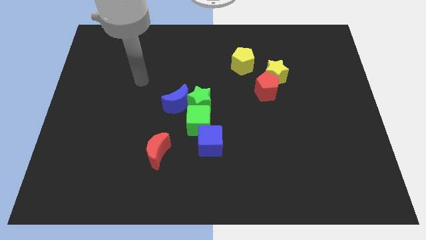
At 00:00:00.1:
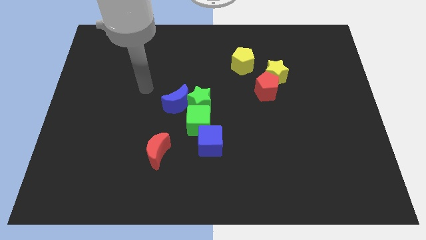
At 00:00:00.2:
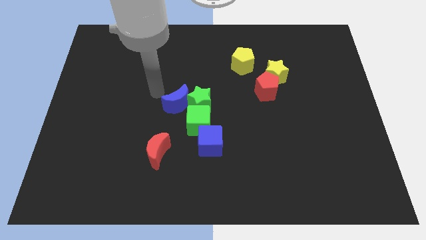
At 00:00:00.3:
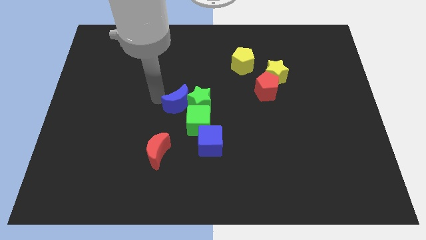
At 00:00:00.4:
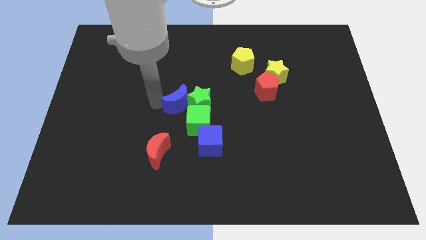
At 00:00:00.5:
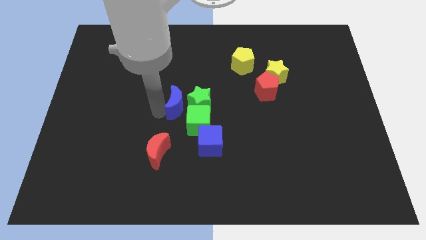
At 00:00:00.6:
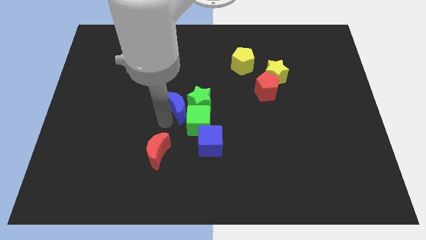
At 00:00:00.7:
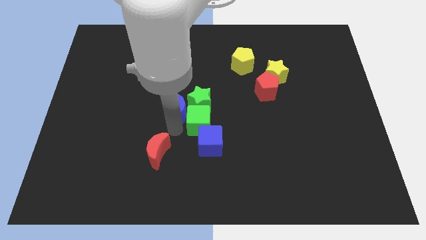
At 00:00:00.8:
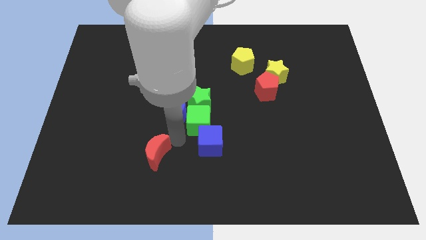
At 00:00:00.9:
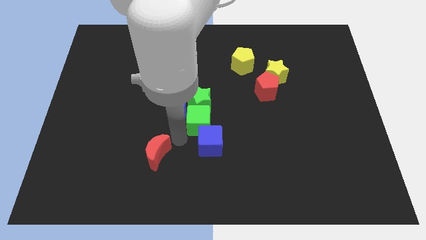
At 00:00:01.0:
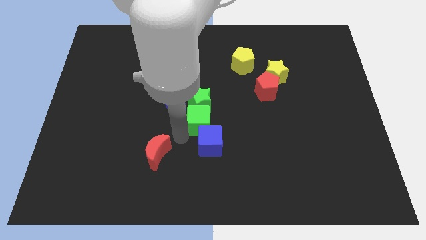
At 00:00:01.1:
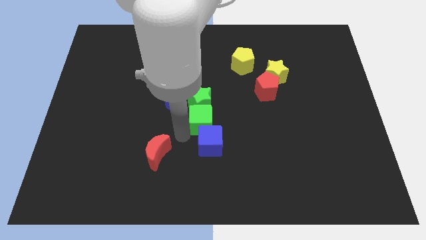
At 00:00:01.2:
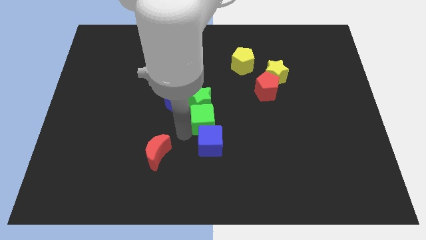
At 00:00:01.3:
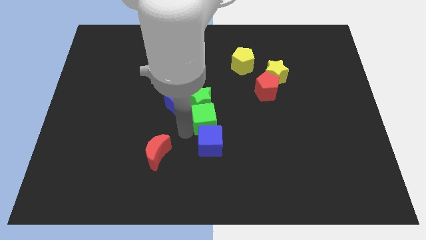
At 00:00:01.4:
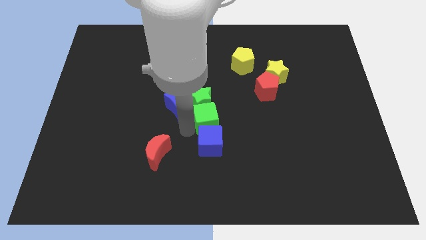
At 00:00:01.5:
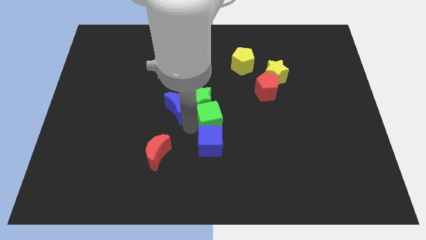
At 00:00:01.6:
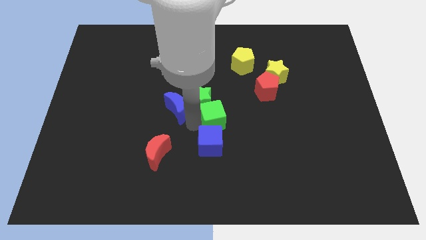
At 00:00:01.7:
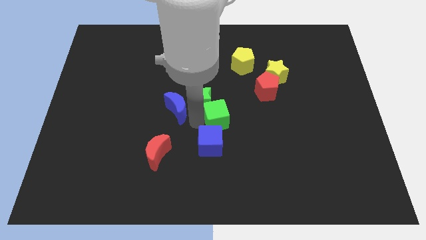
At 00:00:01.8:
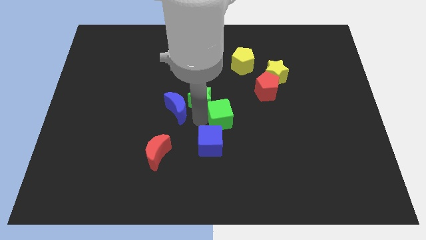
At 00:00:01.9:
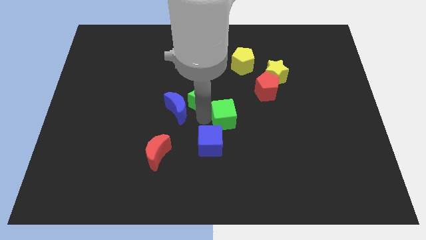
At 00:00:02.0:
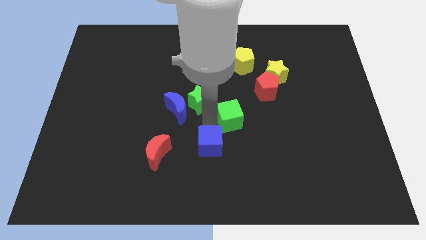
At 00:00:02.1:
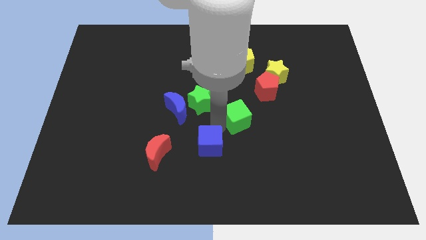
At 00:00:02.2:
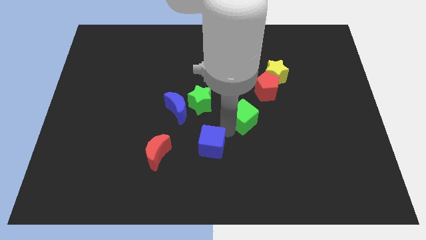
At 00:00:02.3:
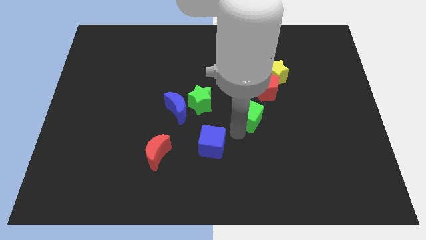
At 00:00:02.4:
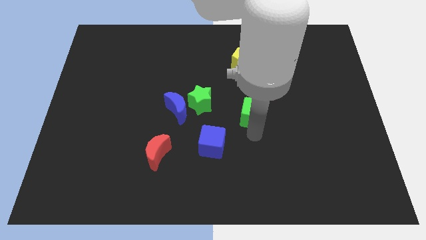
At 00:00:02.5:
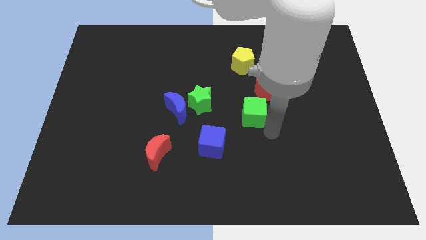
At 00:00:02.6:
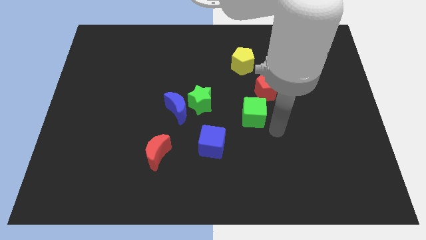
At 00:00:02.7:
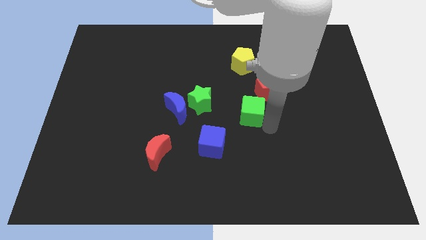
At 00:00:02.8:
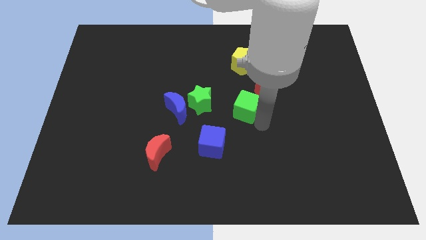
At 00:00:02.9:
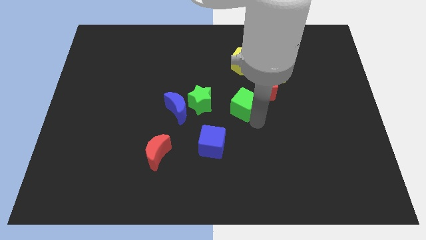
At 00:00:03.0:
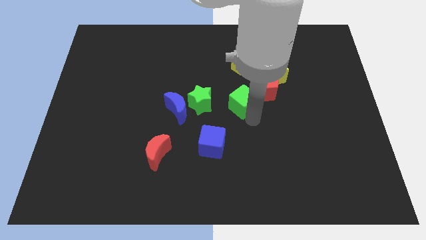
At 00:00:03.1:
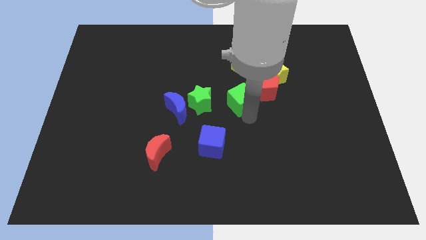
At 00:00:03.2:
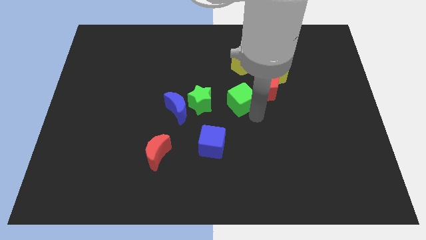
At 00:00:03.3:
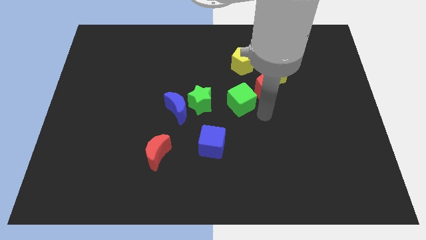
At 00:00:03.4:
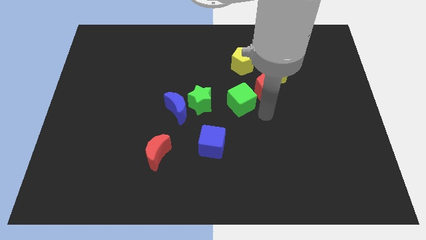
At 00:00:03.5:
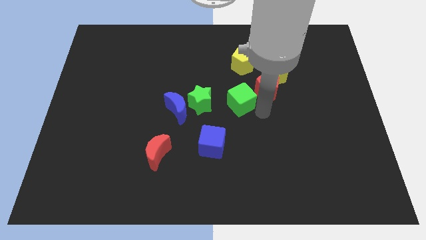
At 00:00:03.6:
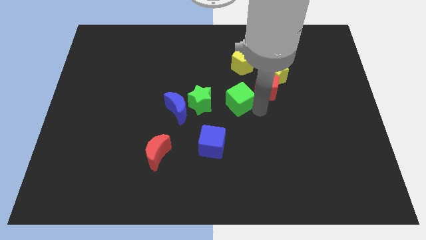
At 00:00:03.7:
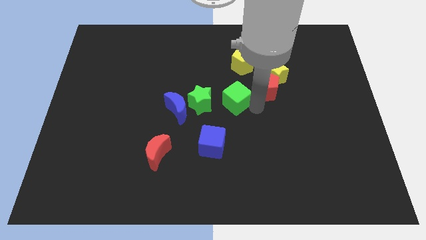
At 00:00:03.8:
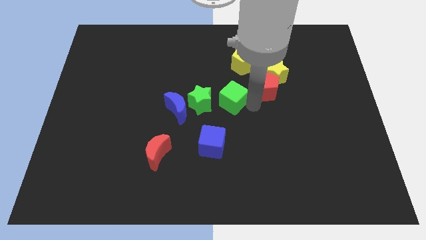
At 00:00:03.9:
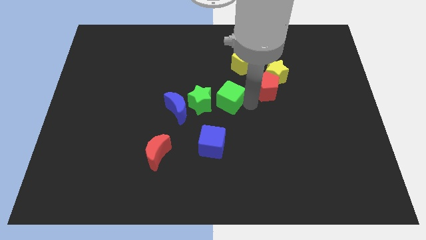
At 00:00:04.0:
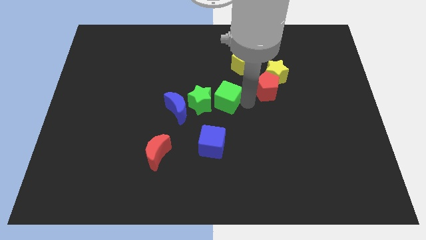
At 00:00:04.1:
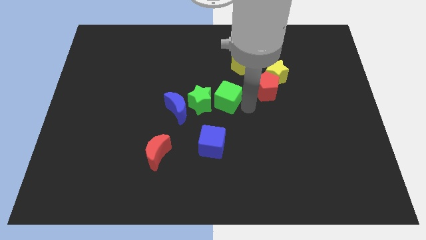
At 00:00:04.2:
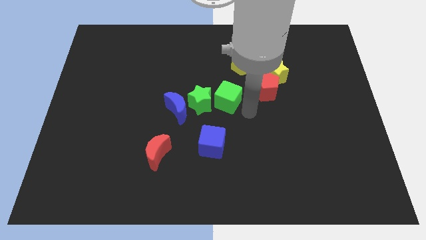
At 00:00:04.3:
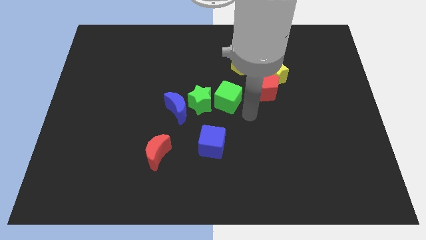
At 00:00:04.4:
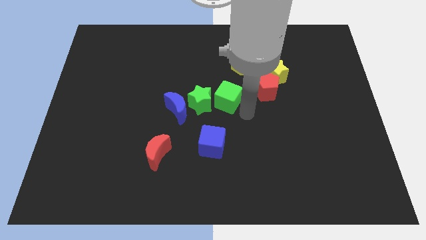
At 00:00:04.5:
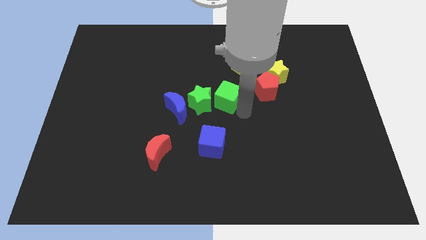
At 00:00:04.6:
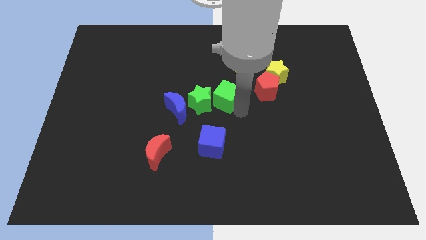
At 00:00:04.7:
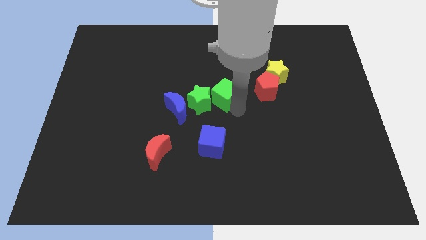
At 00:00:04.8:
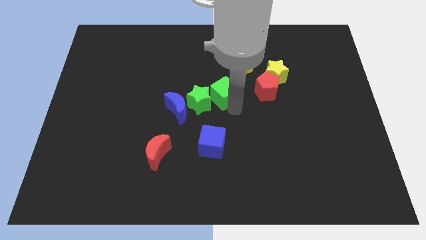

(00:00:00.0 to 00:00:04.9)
push the green cube up slightly

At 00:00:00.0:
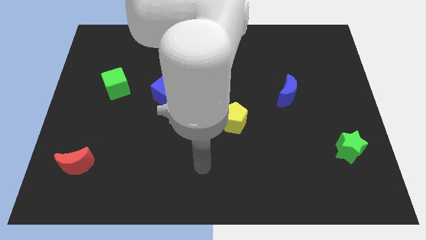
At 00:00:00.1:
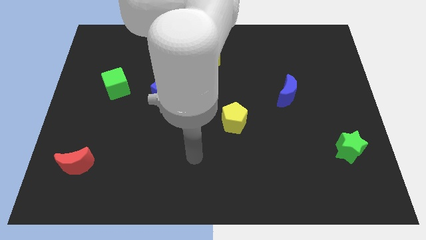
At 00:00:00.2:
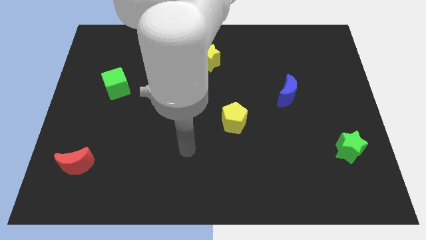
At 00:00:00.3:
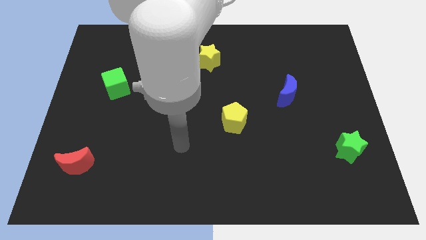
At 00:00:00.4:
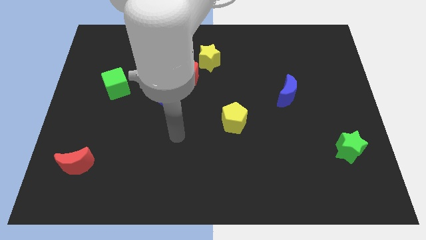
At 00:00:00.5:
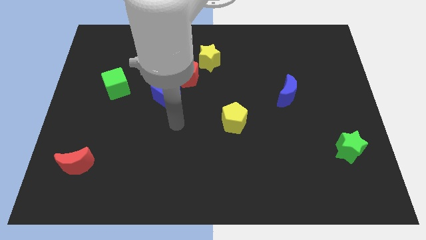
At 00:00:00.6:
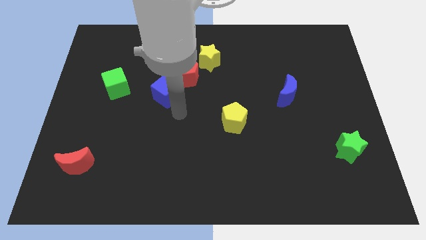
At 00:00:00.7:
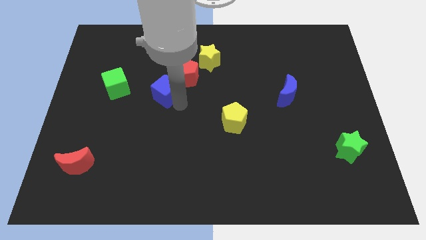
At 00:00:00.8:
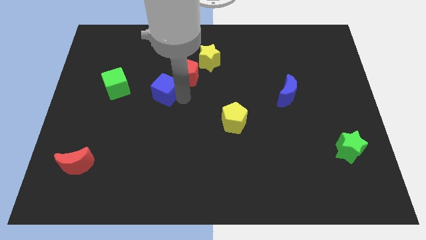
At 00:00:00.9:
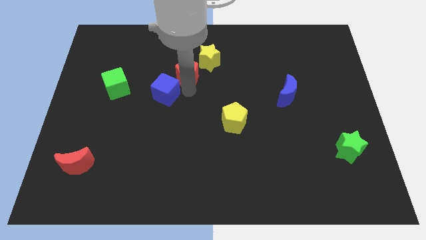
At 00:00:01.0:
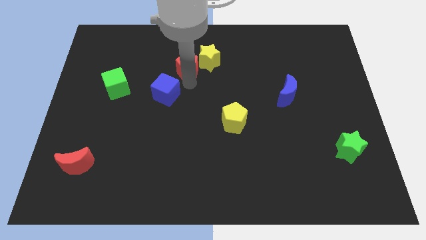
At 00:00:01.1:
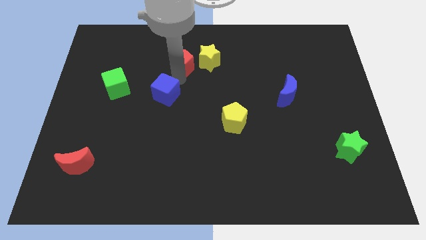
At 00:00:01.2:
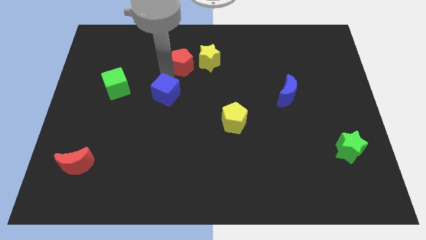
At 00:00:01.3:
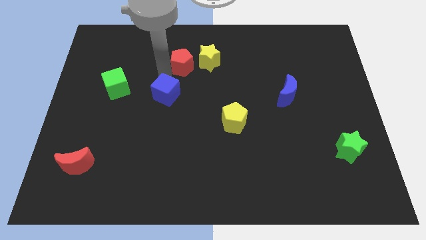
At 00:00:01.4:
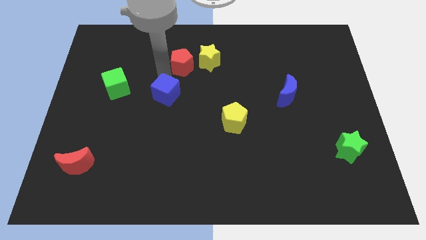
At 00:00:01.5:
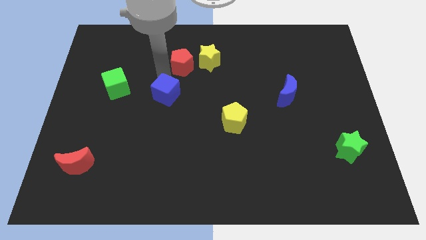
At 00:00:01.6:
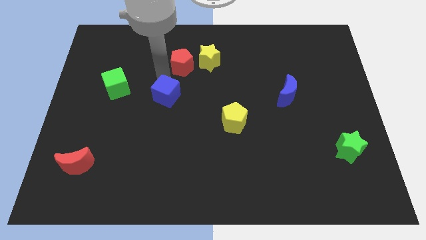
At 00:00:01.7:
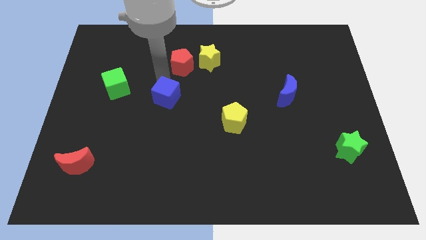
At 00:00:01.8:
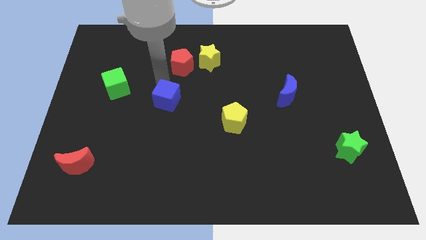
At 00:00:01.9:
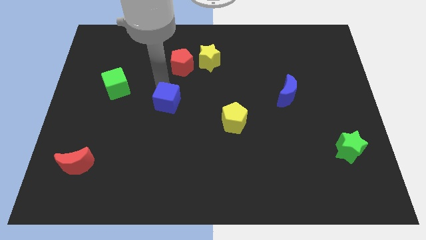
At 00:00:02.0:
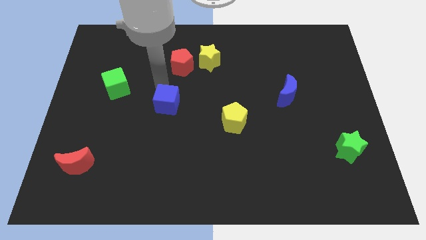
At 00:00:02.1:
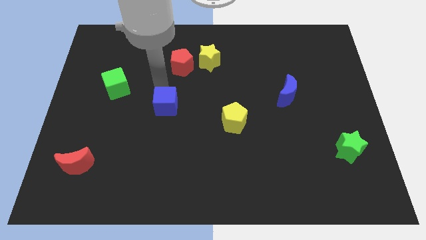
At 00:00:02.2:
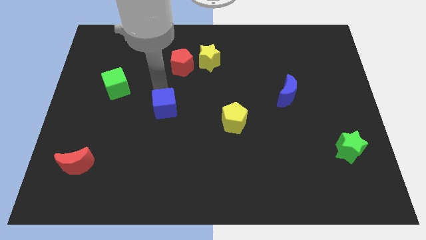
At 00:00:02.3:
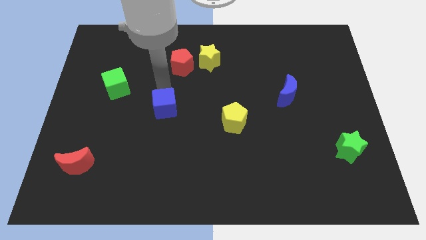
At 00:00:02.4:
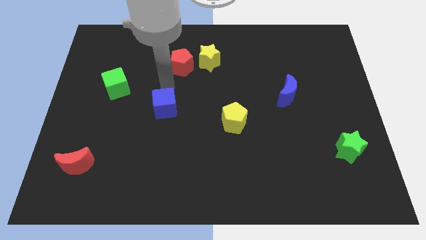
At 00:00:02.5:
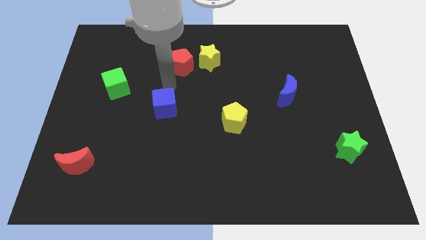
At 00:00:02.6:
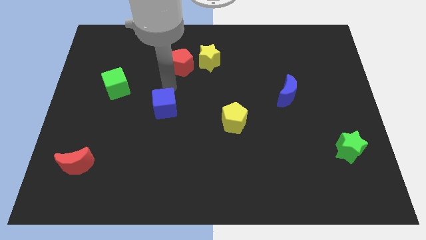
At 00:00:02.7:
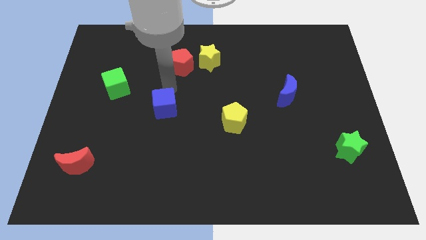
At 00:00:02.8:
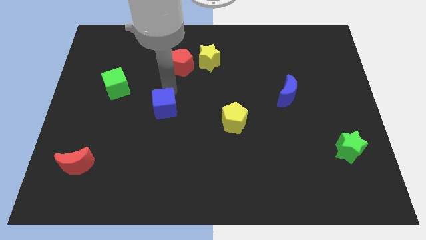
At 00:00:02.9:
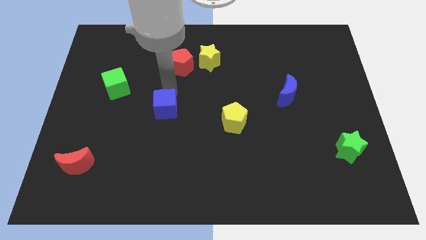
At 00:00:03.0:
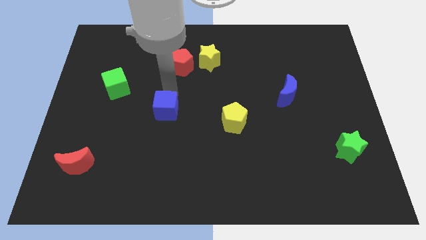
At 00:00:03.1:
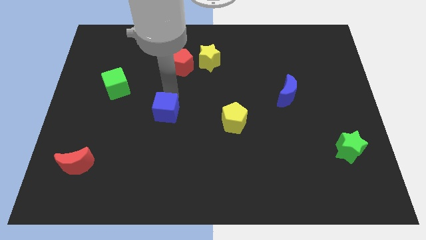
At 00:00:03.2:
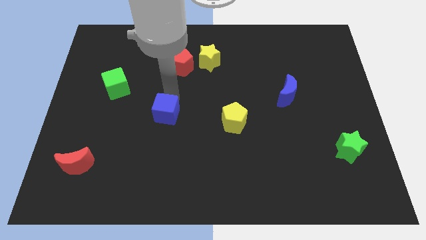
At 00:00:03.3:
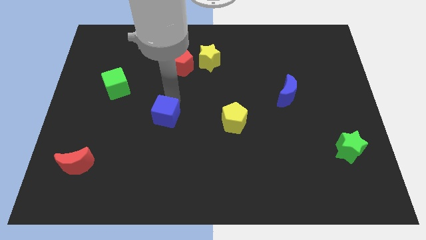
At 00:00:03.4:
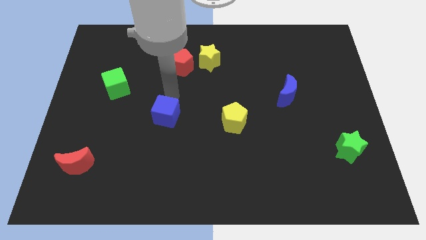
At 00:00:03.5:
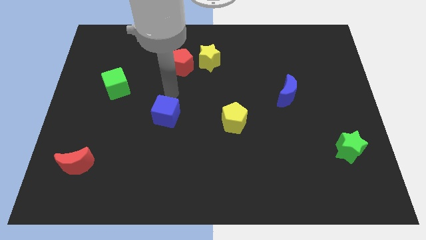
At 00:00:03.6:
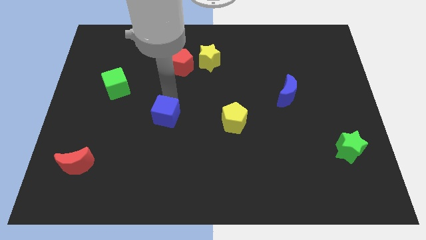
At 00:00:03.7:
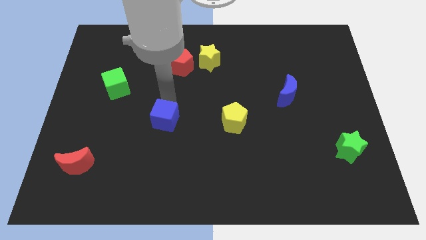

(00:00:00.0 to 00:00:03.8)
move the blue cube a little bit down
